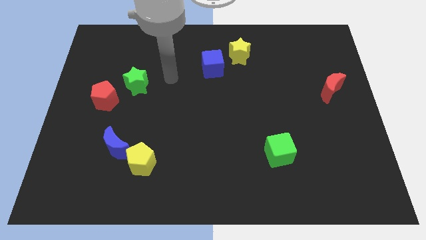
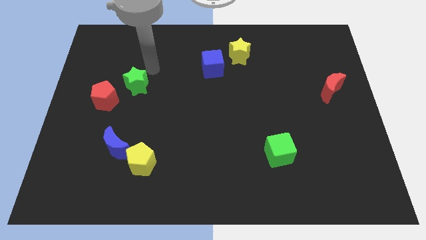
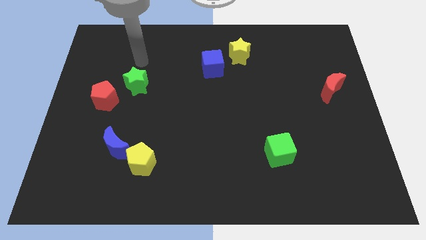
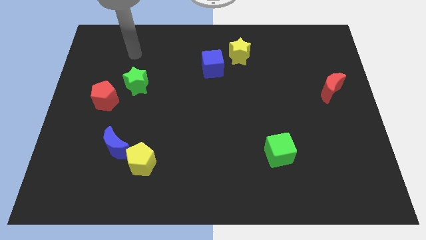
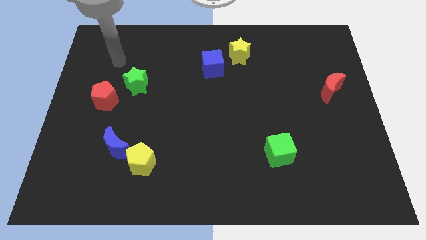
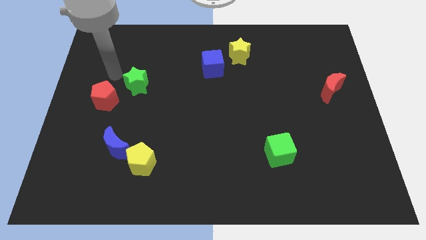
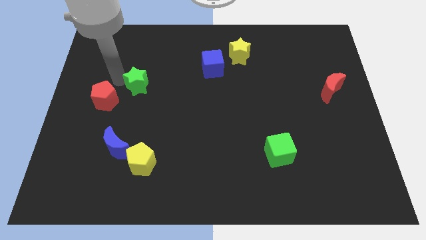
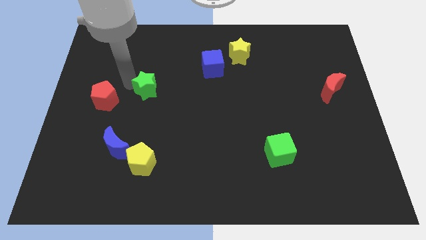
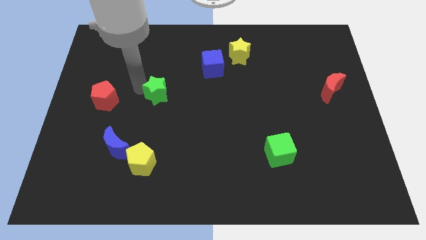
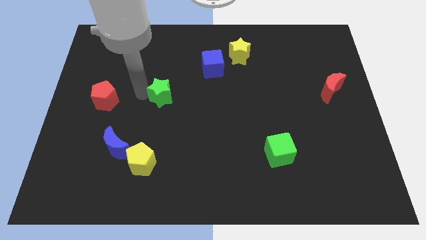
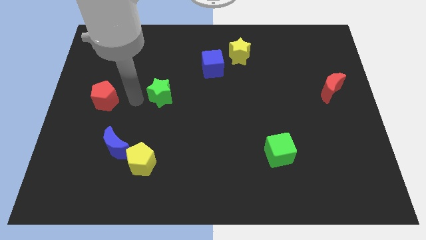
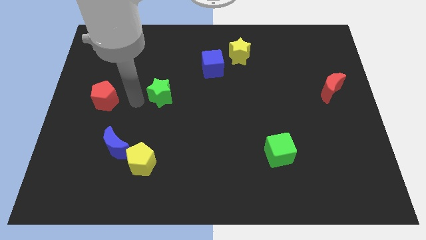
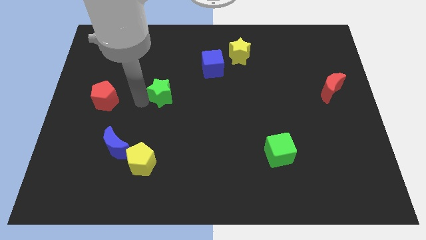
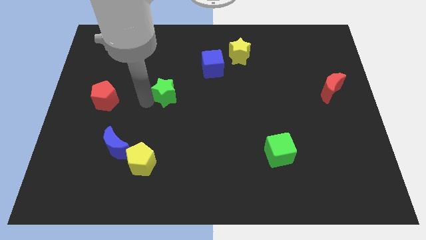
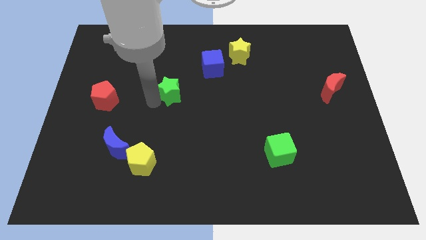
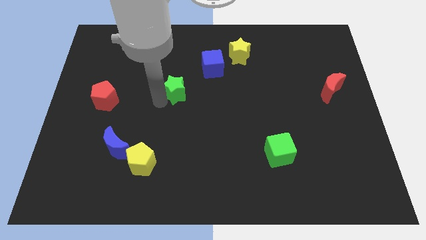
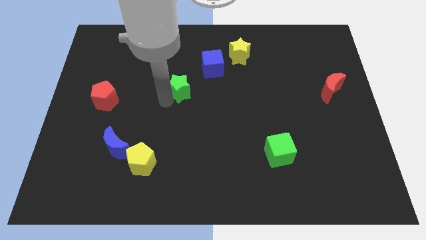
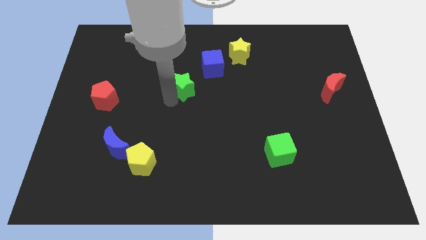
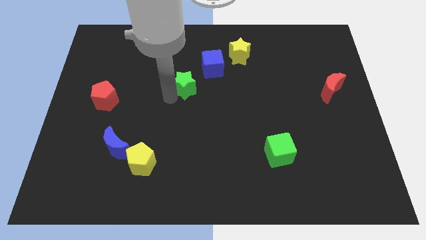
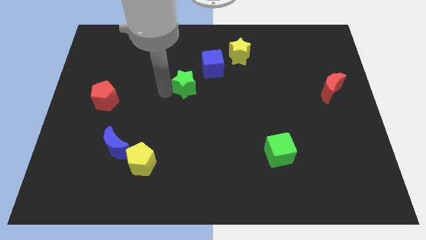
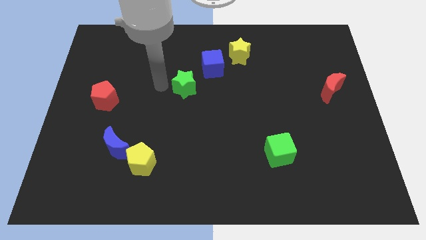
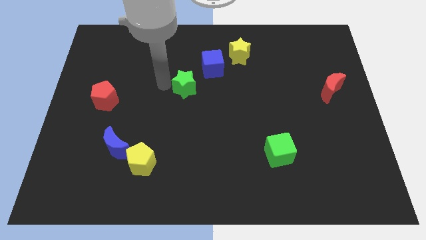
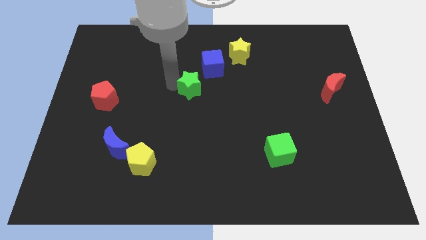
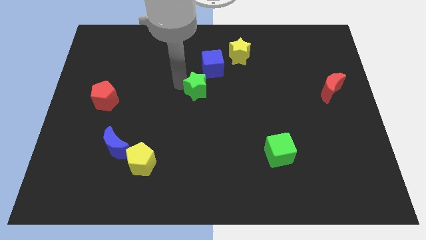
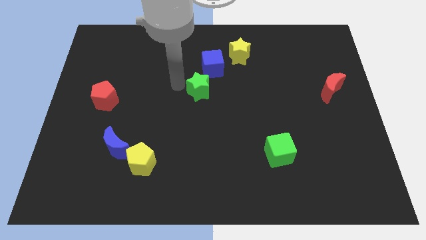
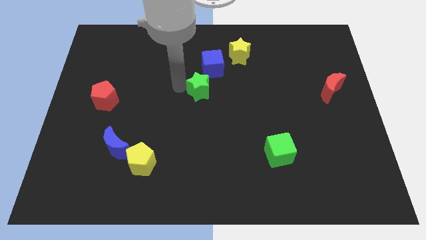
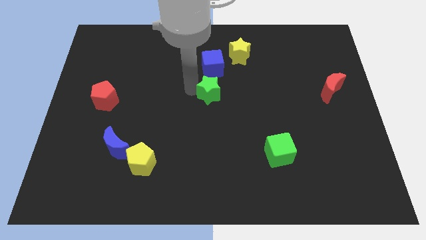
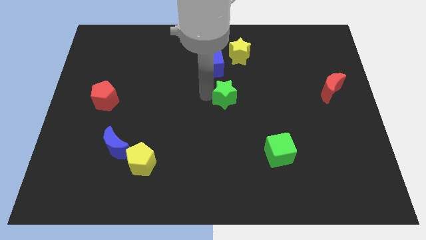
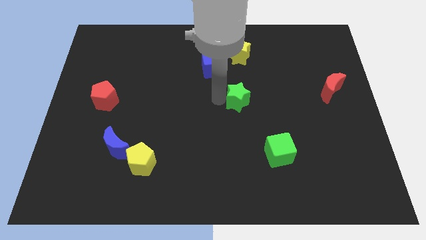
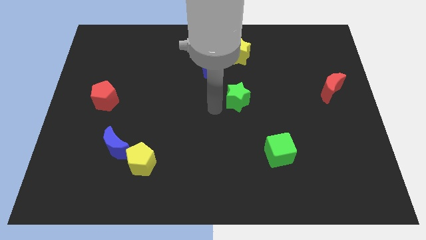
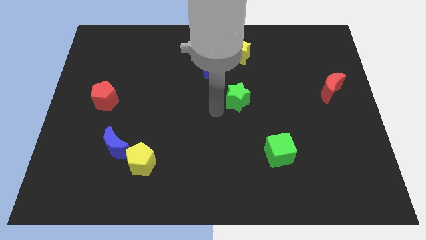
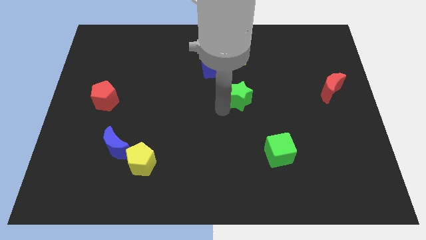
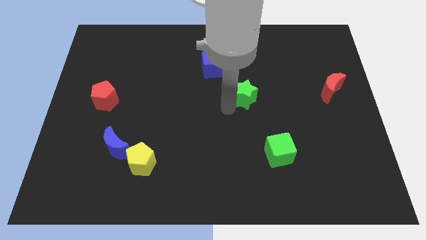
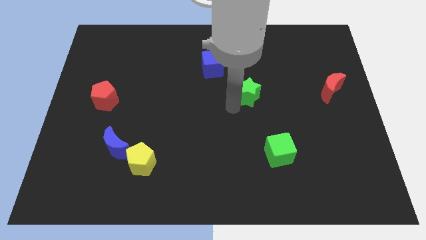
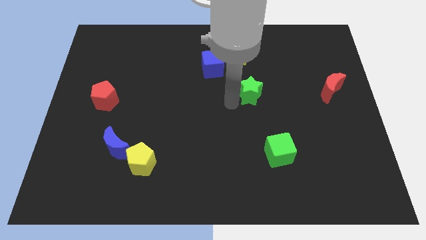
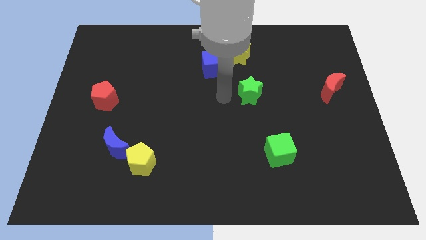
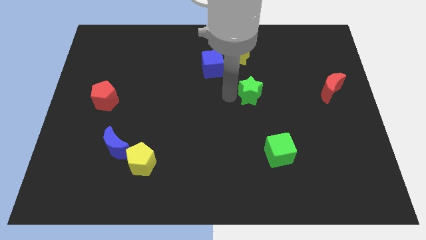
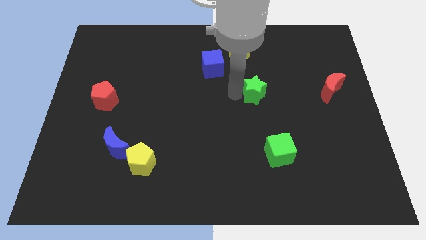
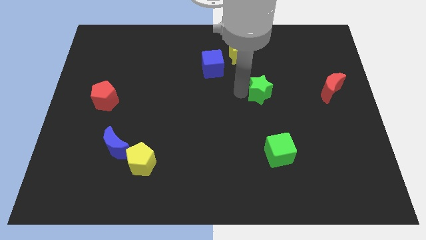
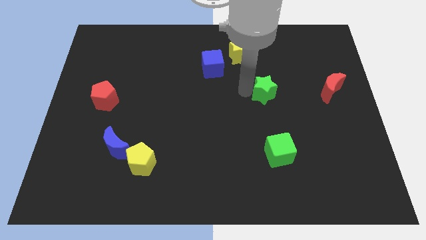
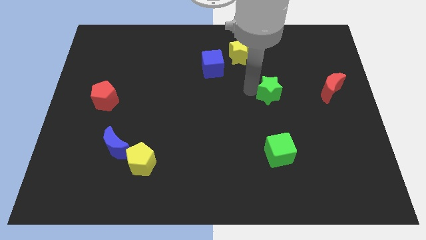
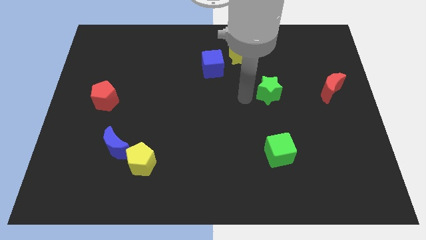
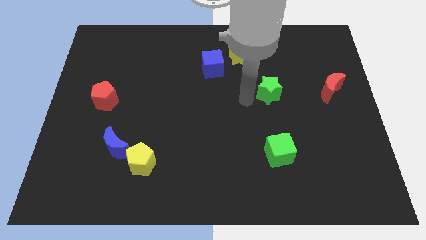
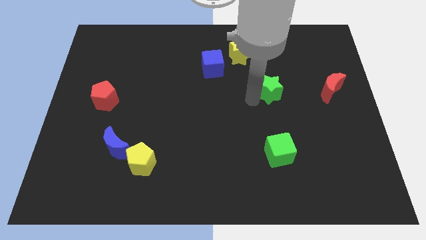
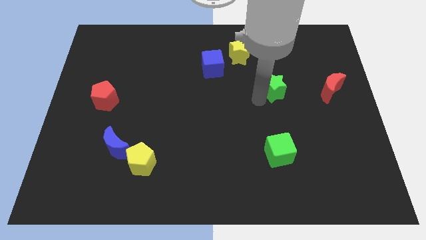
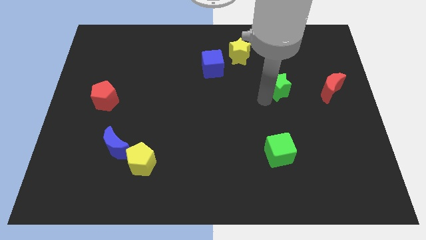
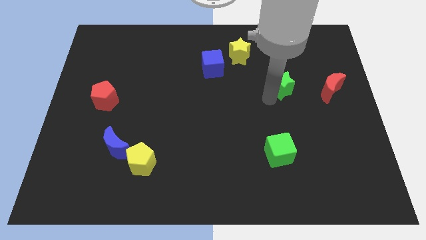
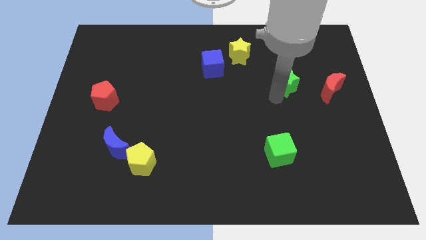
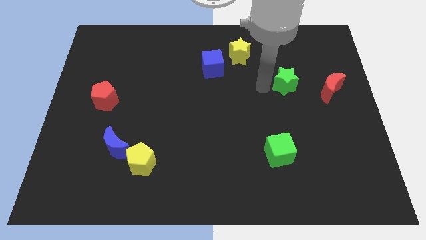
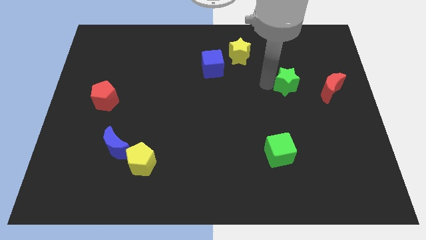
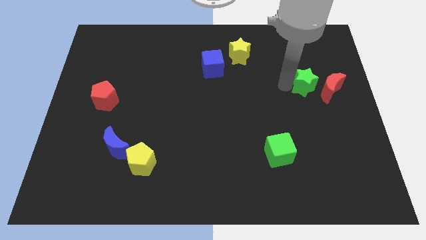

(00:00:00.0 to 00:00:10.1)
slide the green star close to the red moon

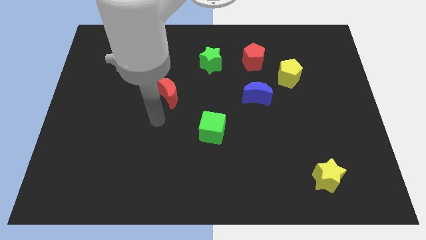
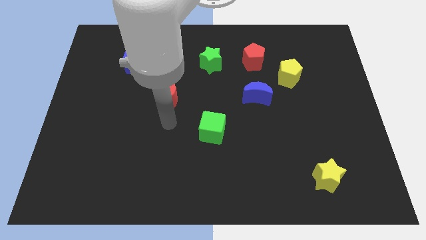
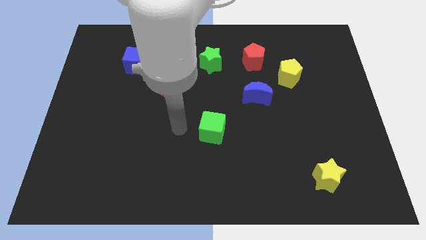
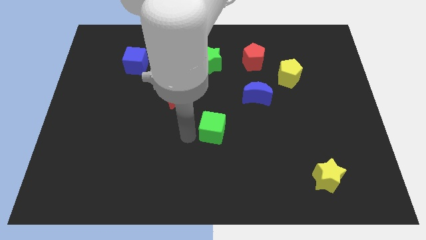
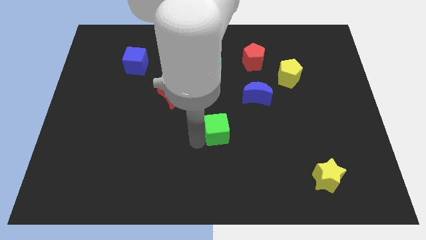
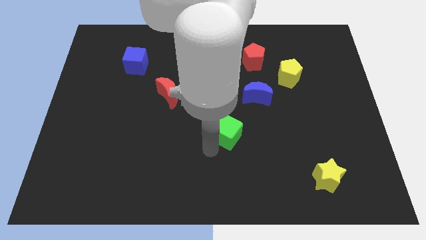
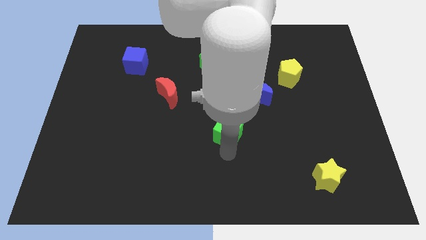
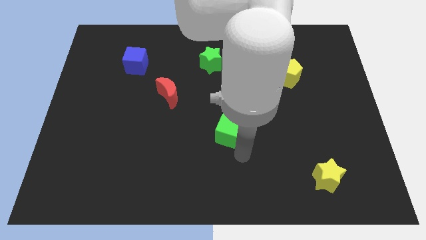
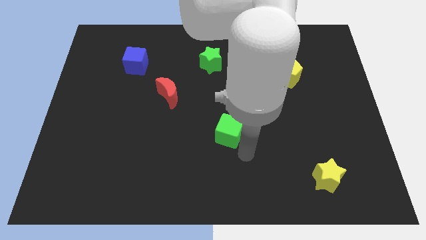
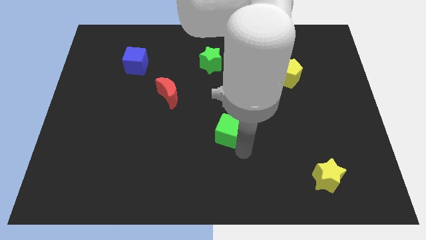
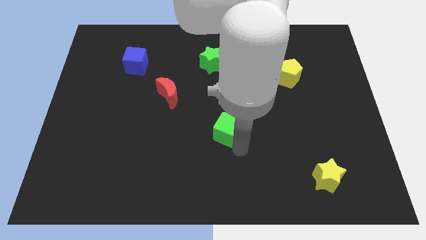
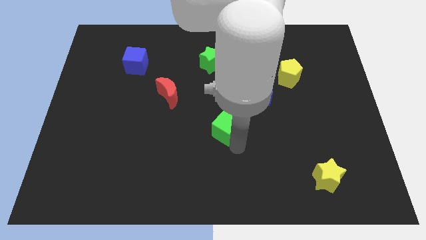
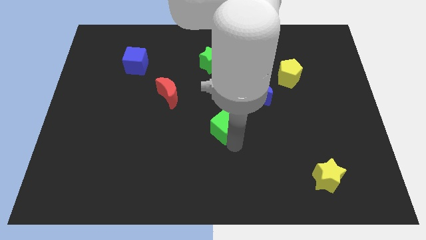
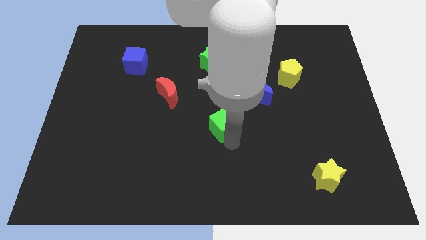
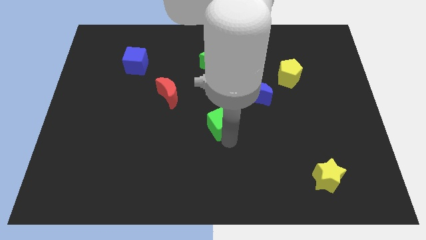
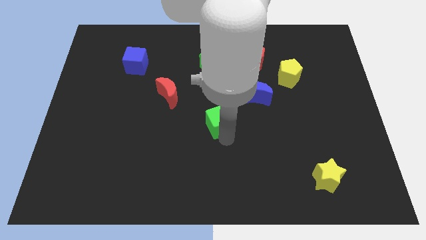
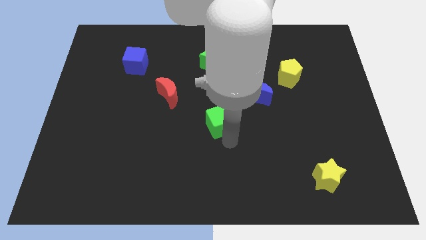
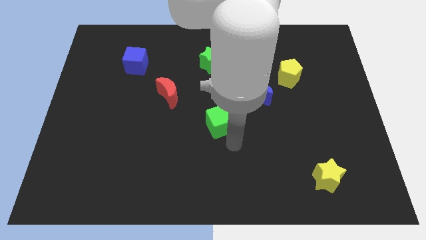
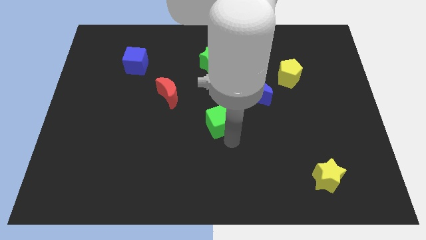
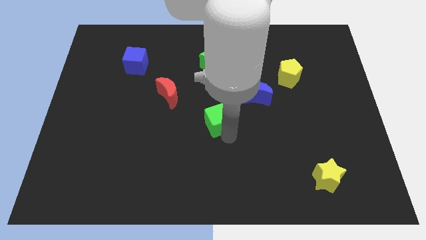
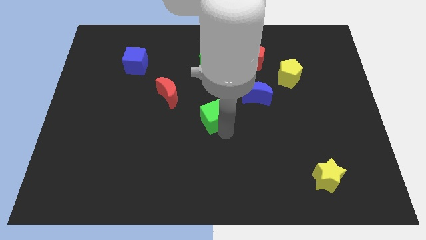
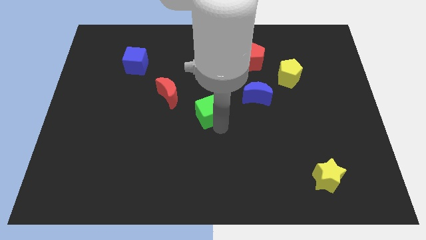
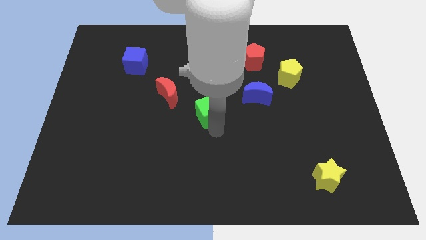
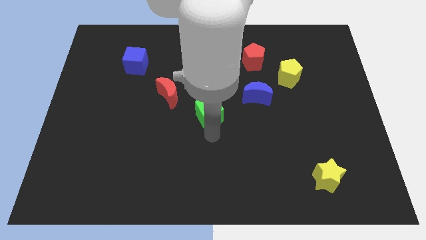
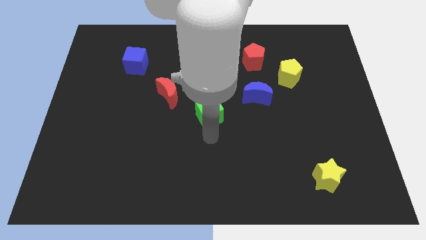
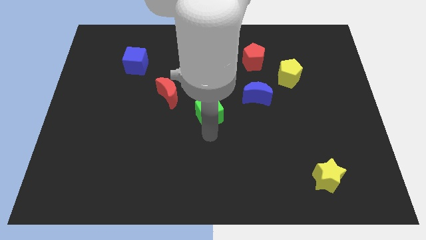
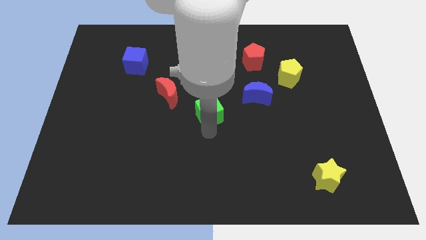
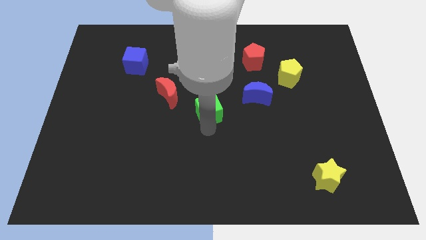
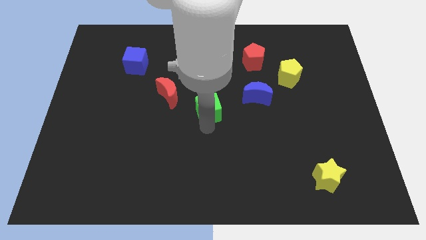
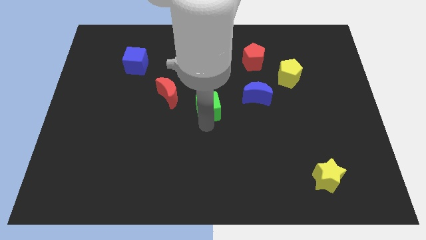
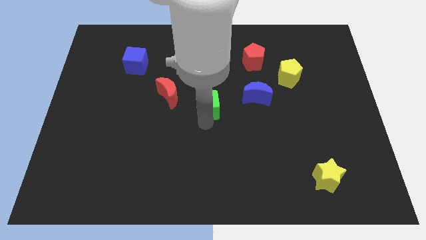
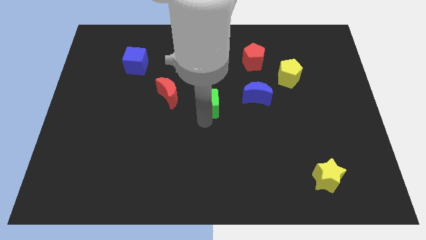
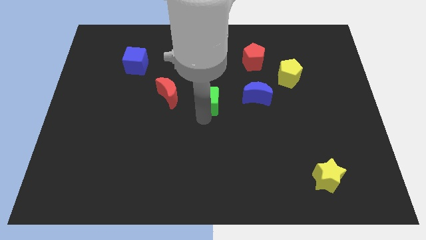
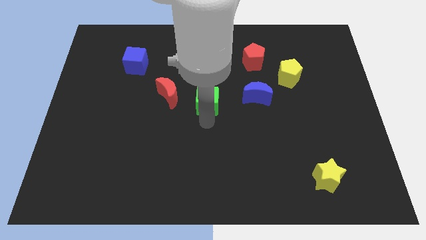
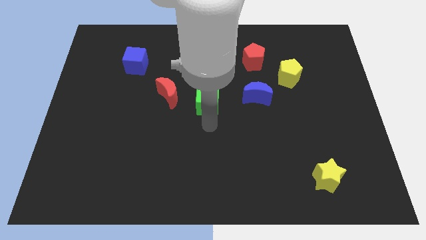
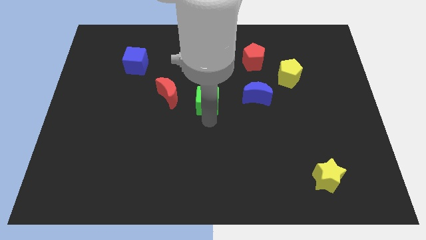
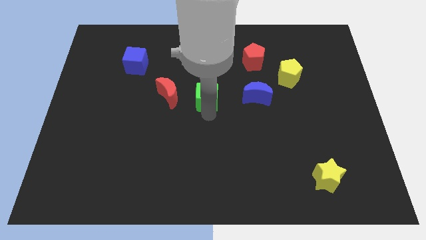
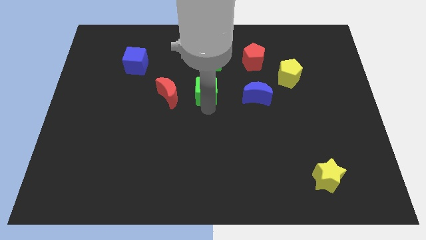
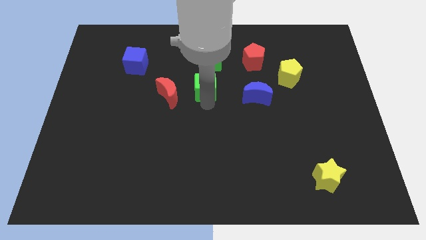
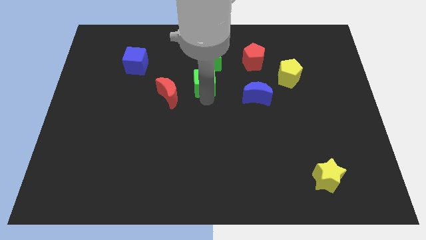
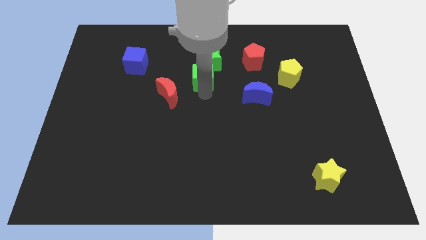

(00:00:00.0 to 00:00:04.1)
push the green cube next to the green star
